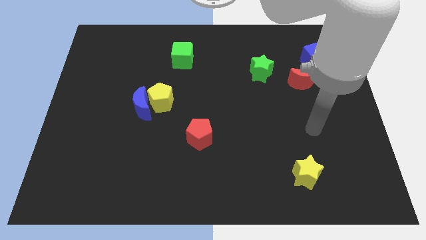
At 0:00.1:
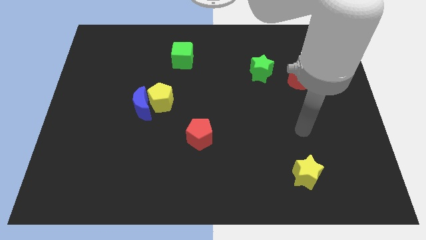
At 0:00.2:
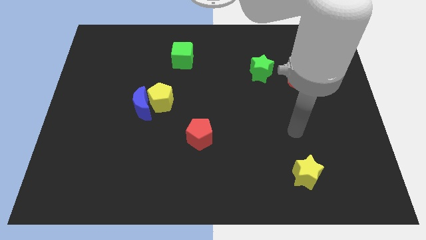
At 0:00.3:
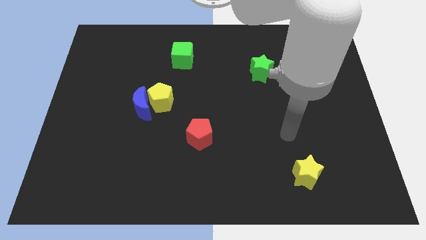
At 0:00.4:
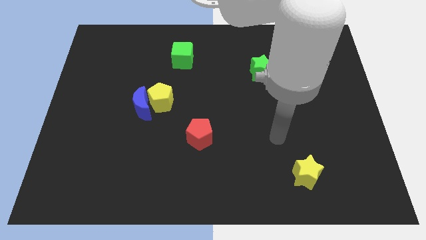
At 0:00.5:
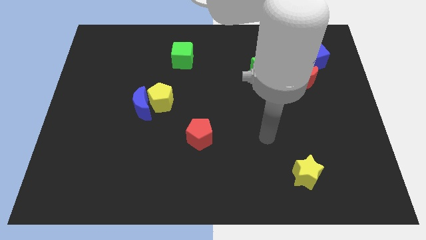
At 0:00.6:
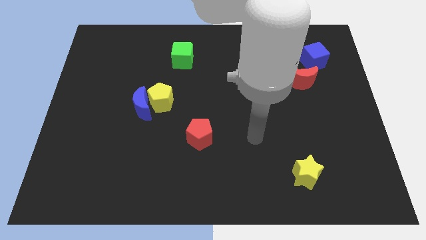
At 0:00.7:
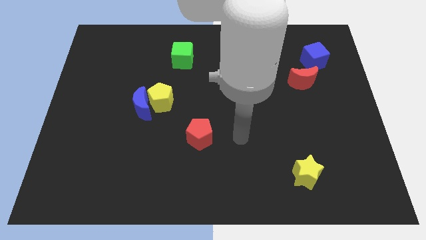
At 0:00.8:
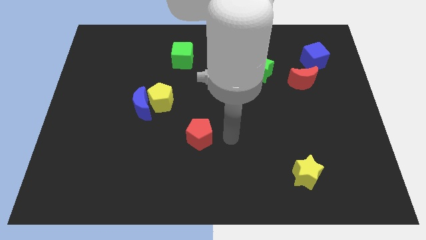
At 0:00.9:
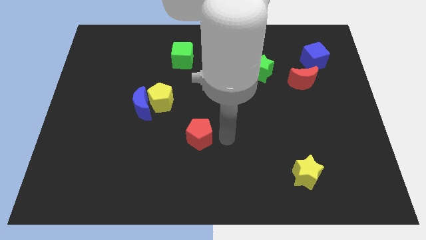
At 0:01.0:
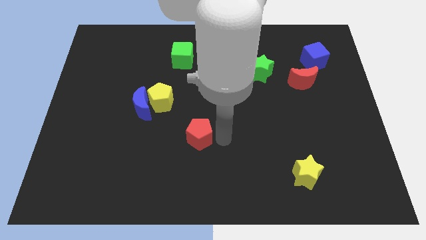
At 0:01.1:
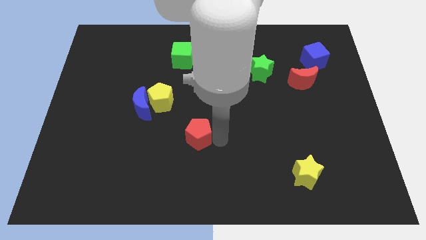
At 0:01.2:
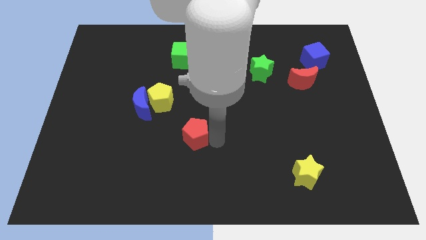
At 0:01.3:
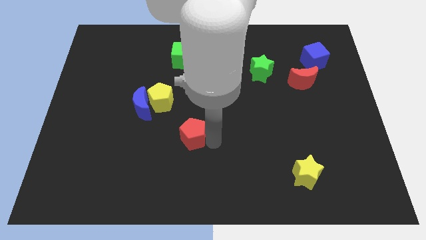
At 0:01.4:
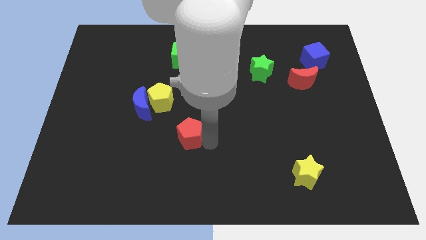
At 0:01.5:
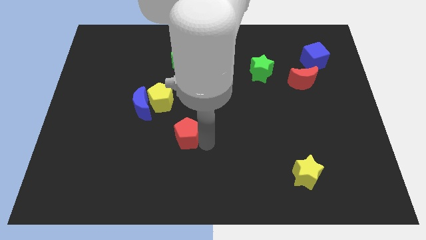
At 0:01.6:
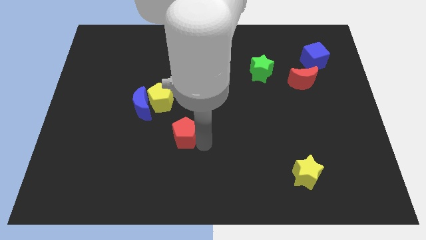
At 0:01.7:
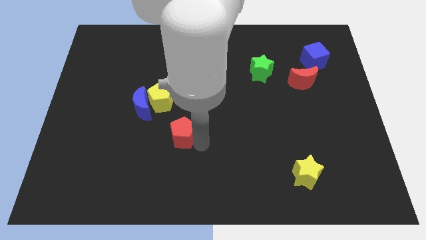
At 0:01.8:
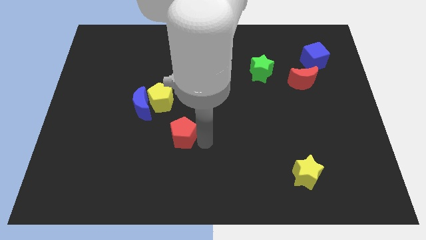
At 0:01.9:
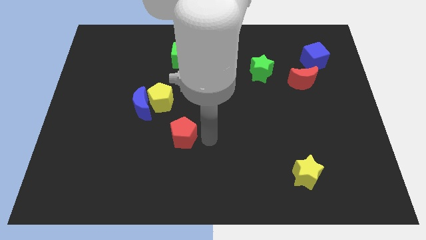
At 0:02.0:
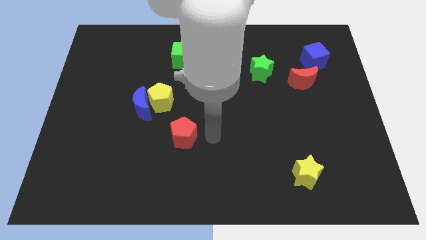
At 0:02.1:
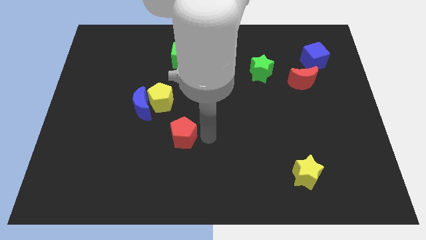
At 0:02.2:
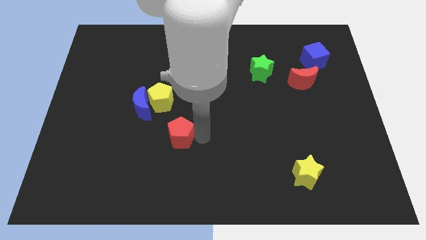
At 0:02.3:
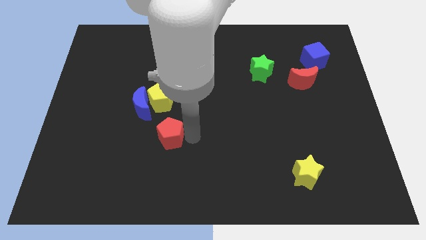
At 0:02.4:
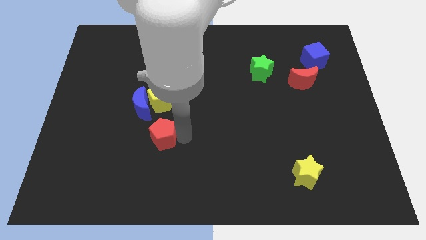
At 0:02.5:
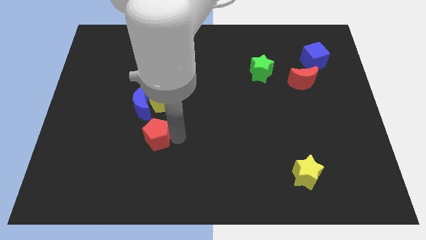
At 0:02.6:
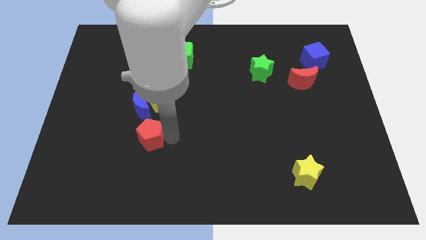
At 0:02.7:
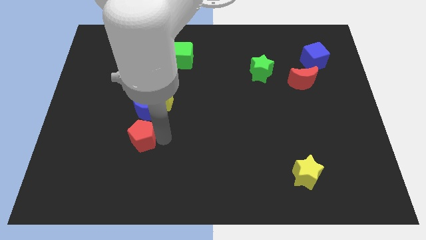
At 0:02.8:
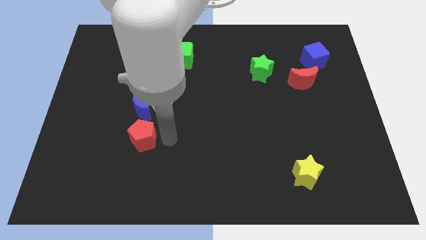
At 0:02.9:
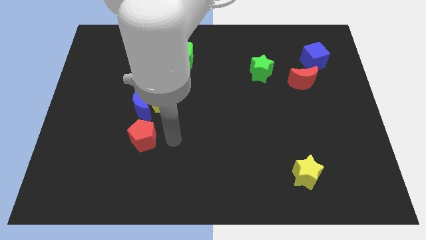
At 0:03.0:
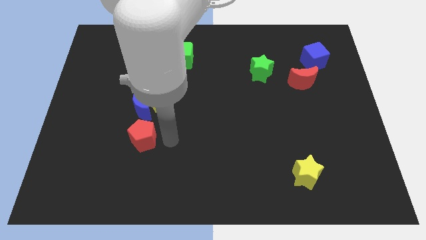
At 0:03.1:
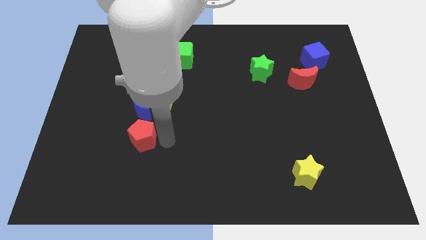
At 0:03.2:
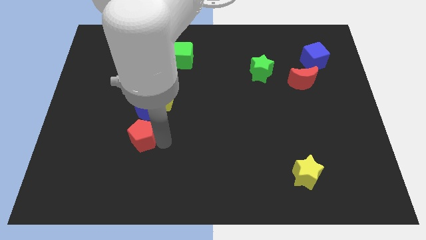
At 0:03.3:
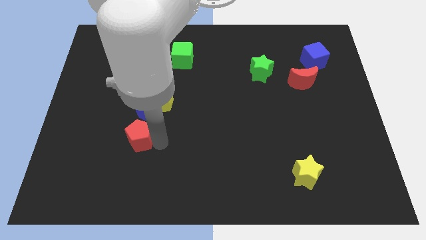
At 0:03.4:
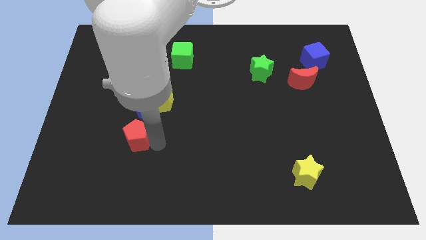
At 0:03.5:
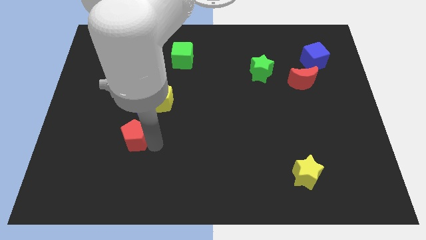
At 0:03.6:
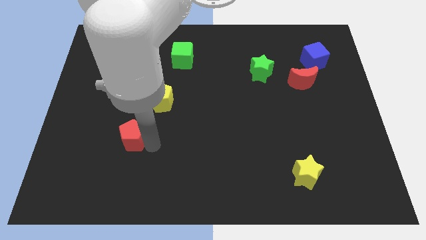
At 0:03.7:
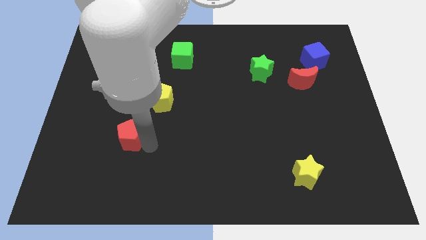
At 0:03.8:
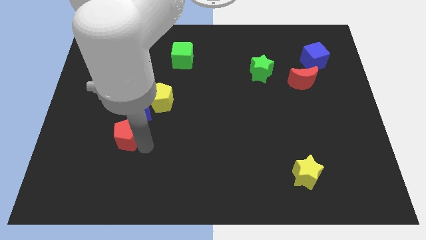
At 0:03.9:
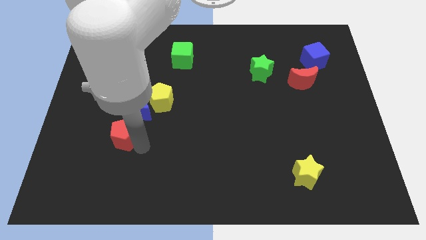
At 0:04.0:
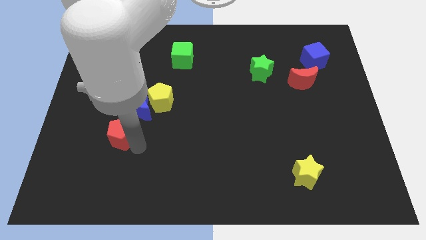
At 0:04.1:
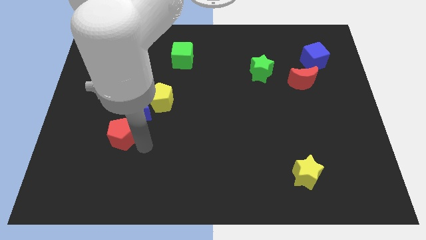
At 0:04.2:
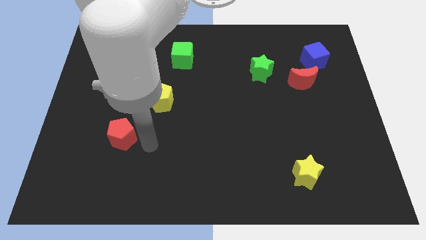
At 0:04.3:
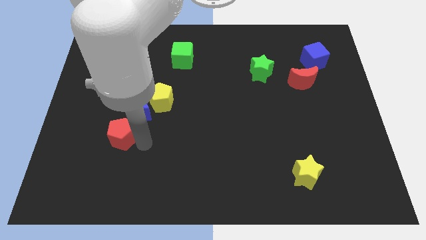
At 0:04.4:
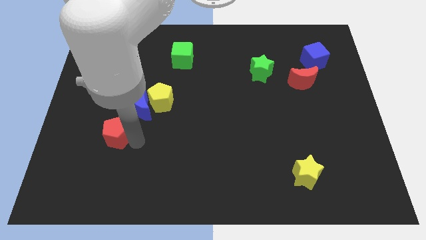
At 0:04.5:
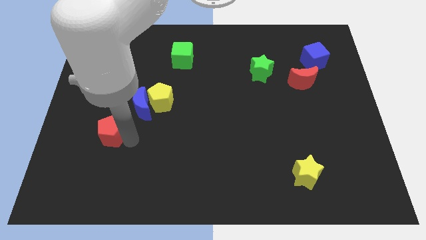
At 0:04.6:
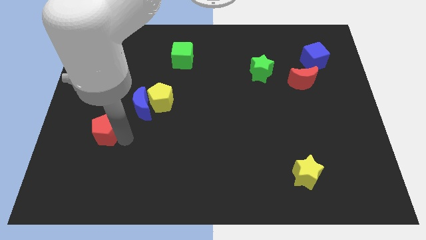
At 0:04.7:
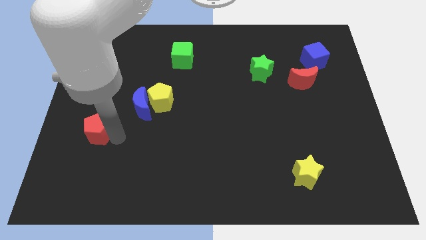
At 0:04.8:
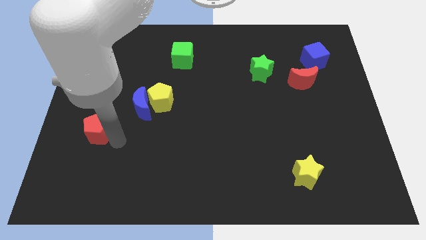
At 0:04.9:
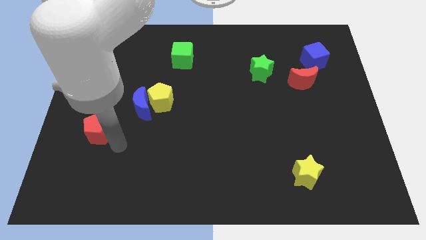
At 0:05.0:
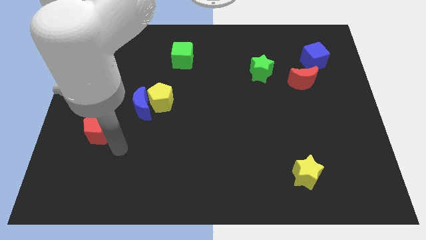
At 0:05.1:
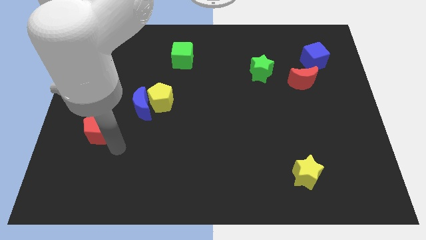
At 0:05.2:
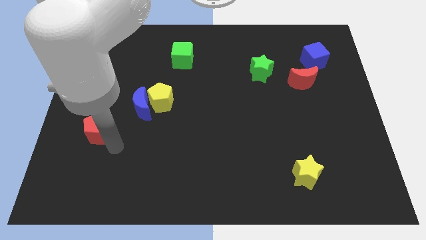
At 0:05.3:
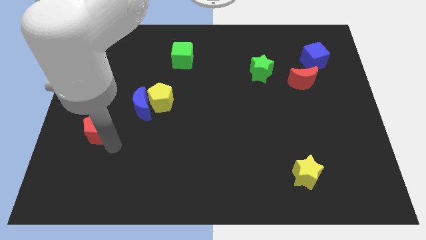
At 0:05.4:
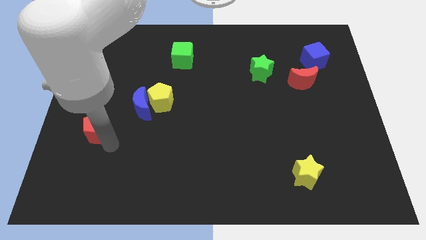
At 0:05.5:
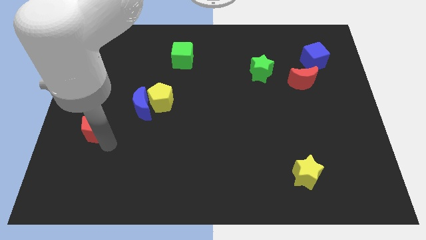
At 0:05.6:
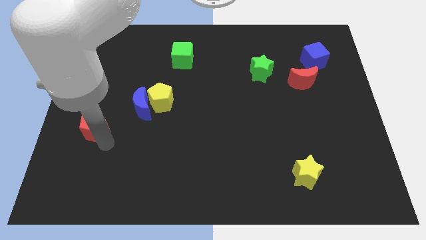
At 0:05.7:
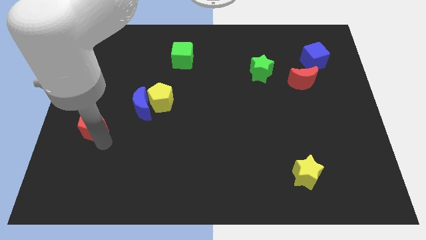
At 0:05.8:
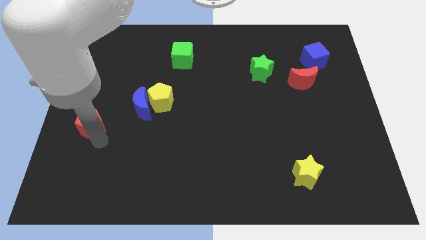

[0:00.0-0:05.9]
push the red pentagon to the left side

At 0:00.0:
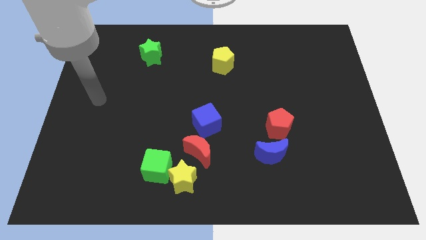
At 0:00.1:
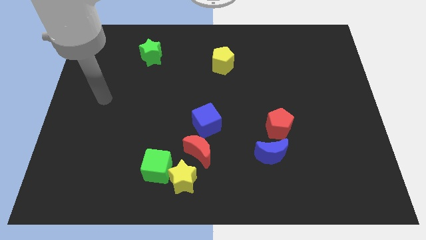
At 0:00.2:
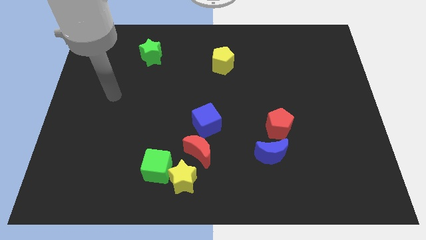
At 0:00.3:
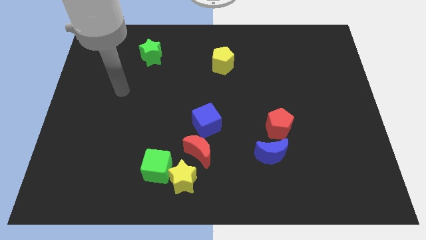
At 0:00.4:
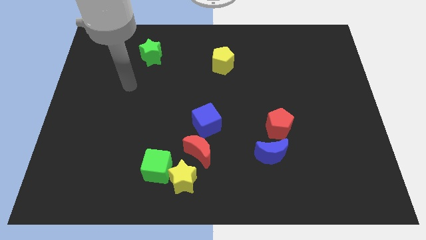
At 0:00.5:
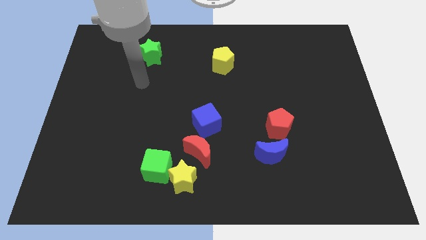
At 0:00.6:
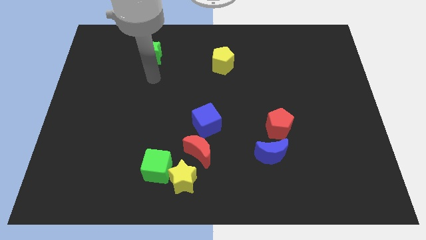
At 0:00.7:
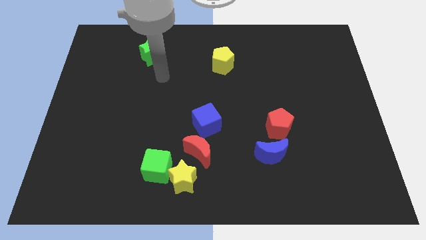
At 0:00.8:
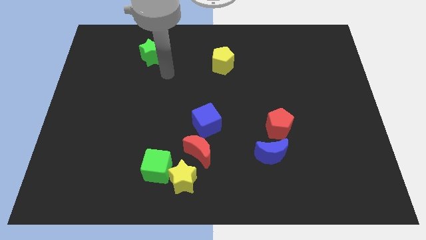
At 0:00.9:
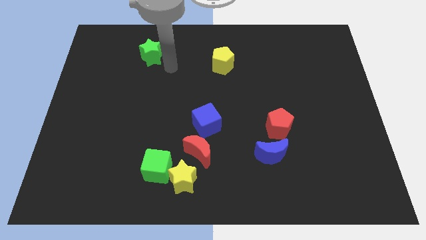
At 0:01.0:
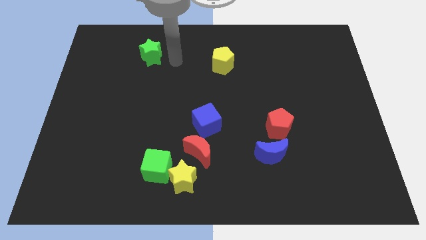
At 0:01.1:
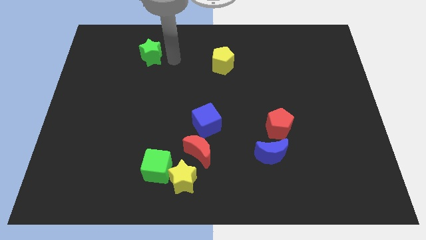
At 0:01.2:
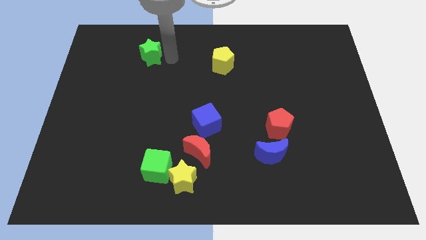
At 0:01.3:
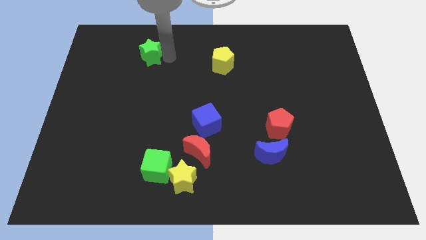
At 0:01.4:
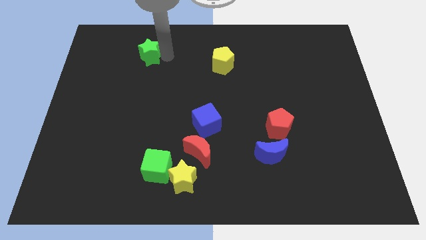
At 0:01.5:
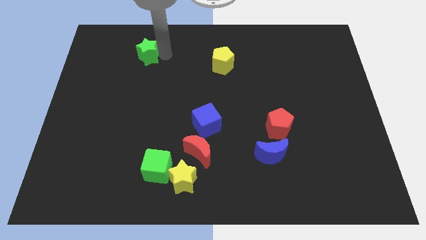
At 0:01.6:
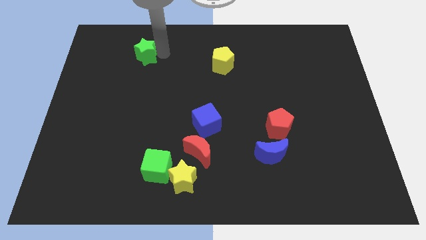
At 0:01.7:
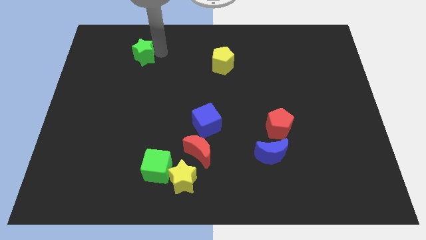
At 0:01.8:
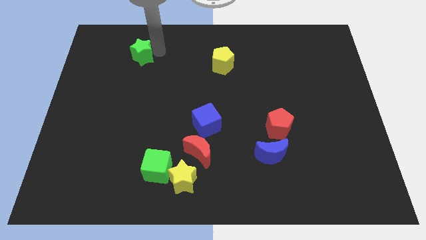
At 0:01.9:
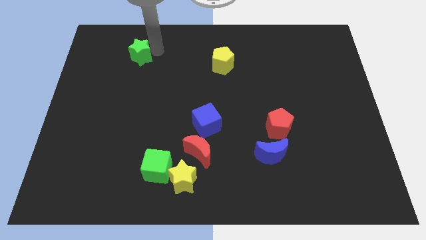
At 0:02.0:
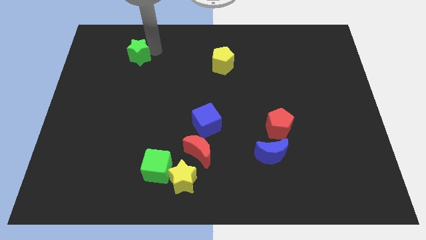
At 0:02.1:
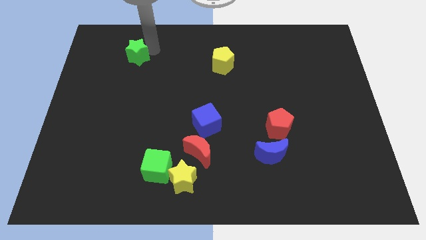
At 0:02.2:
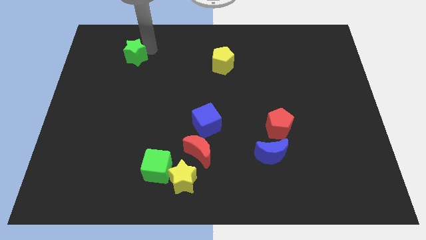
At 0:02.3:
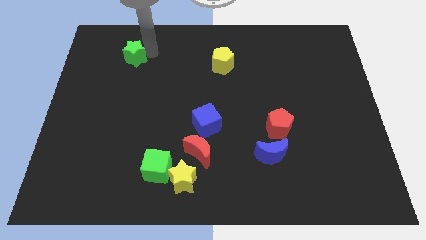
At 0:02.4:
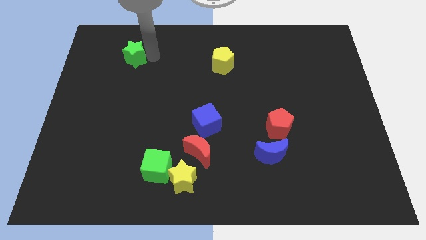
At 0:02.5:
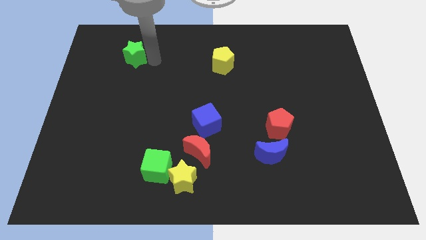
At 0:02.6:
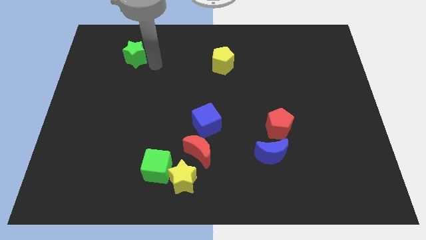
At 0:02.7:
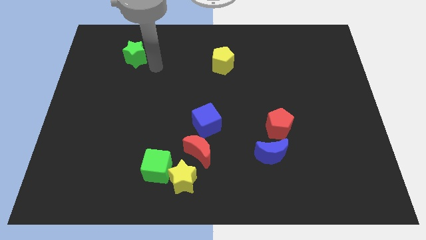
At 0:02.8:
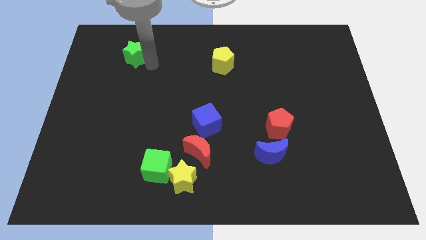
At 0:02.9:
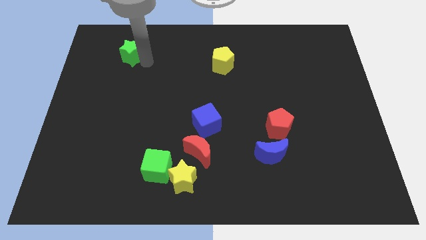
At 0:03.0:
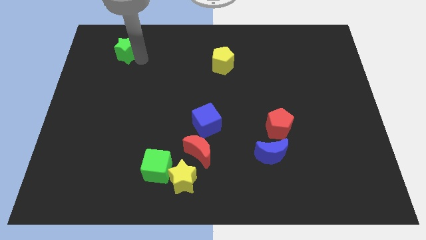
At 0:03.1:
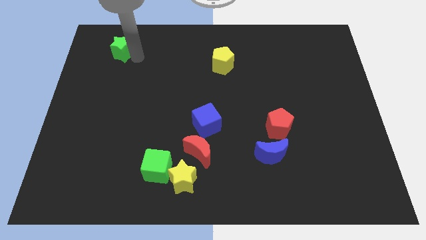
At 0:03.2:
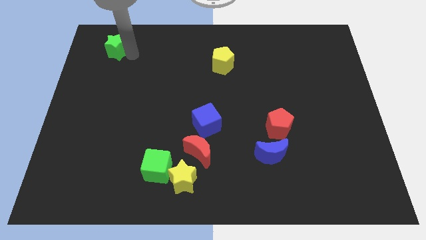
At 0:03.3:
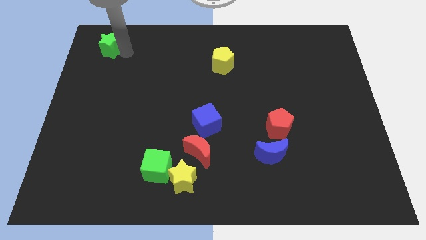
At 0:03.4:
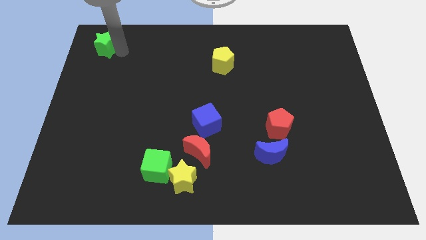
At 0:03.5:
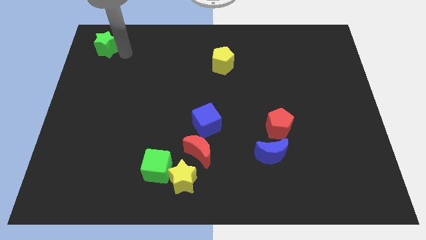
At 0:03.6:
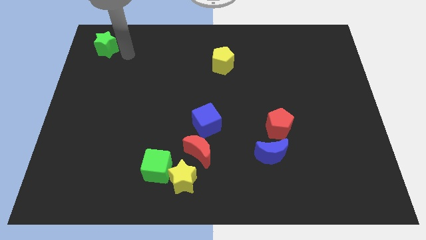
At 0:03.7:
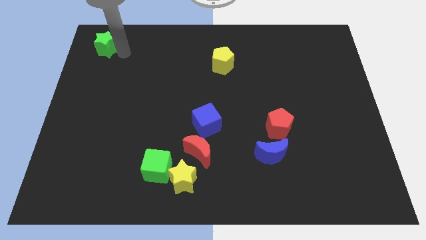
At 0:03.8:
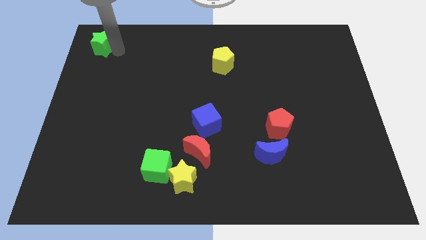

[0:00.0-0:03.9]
move the green star to the top left
